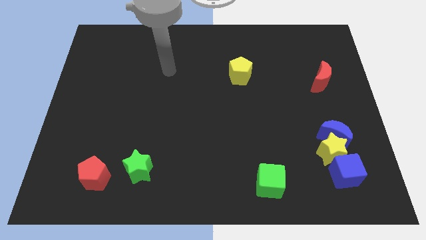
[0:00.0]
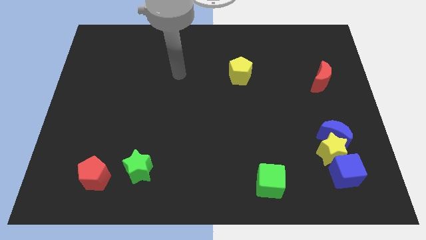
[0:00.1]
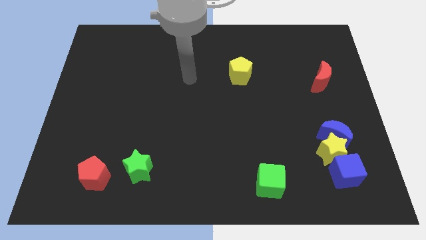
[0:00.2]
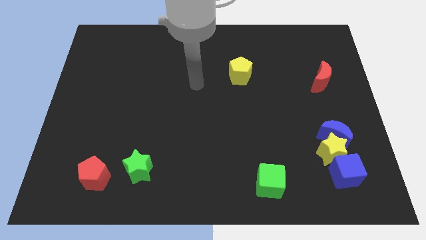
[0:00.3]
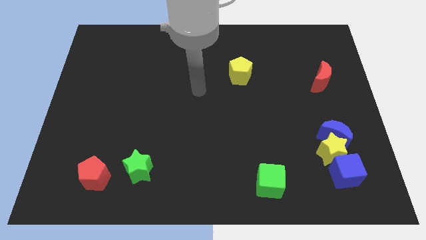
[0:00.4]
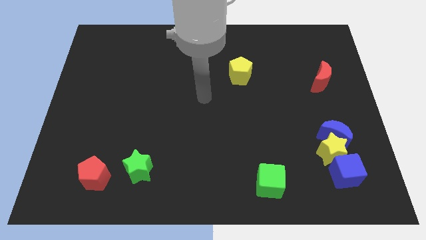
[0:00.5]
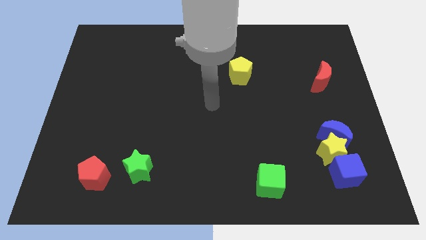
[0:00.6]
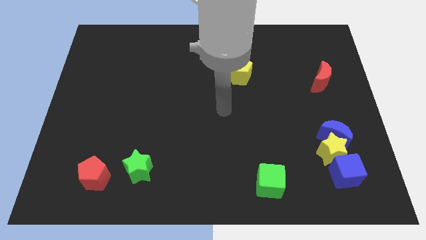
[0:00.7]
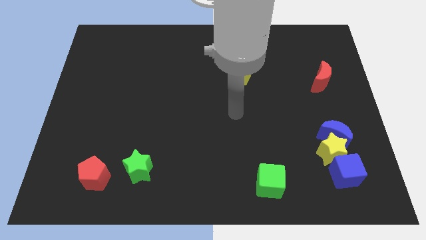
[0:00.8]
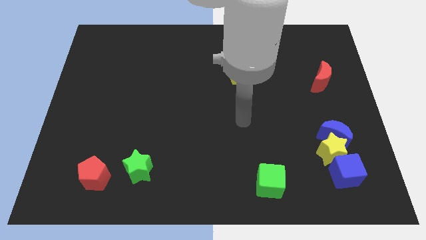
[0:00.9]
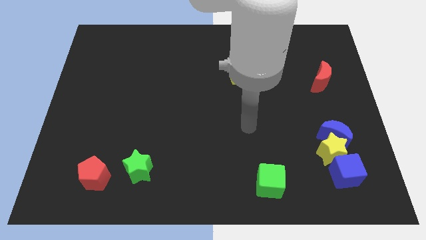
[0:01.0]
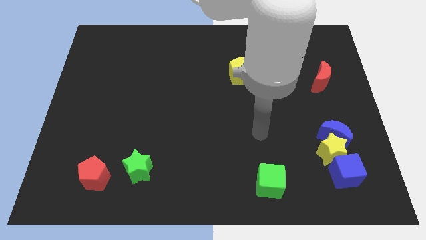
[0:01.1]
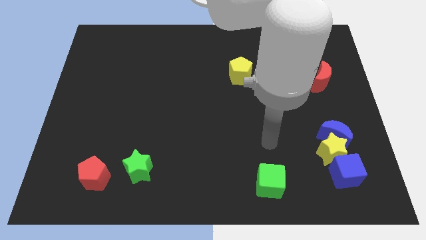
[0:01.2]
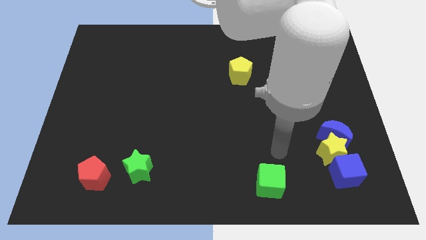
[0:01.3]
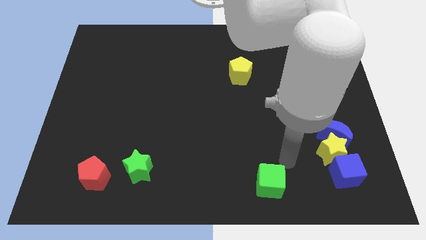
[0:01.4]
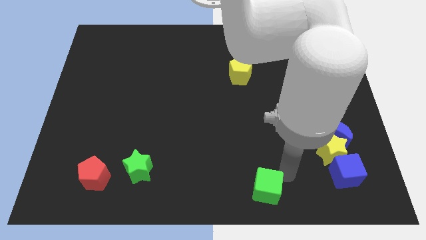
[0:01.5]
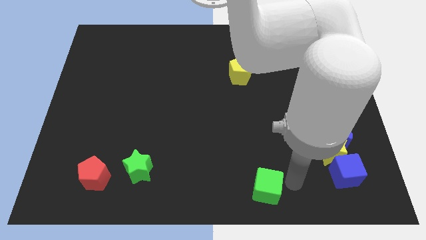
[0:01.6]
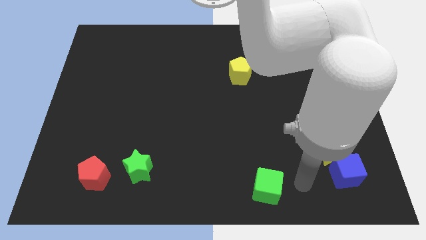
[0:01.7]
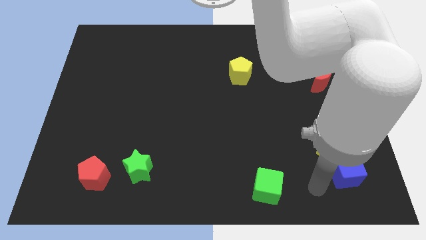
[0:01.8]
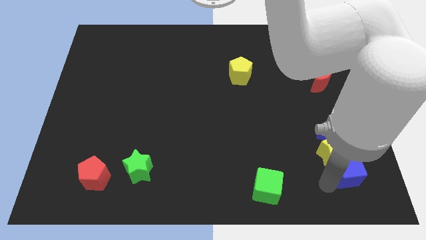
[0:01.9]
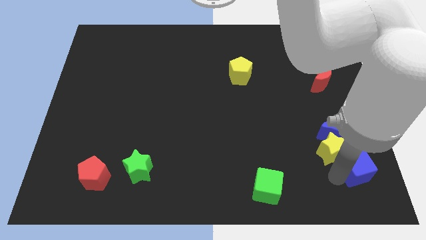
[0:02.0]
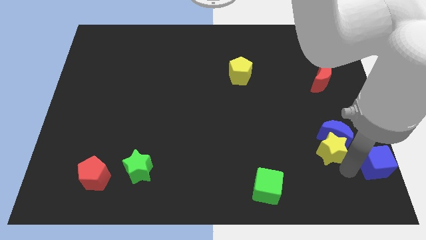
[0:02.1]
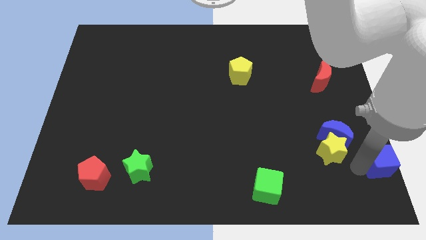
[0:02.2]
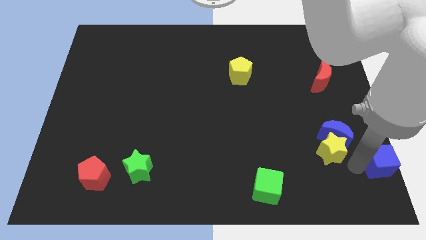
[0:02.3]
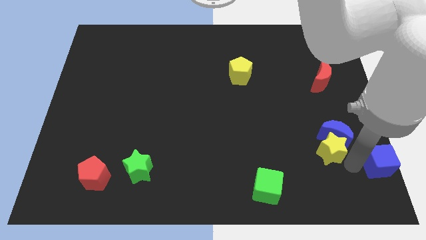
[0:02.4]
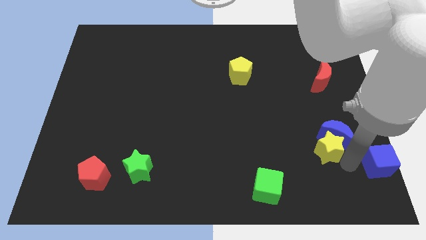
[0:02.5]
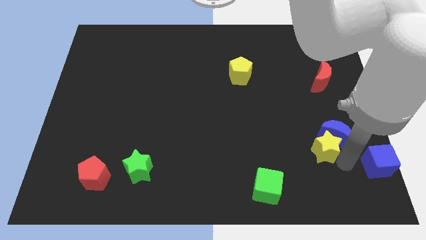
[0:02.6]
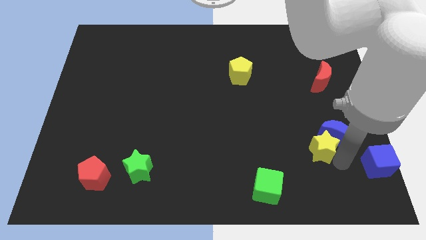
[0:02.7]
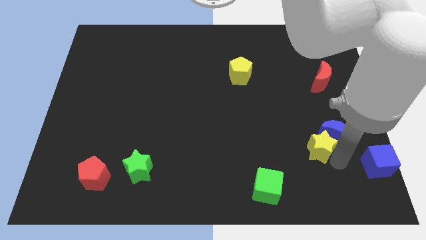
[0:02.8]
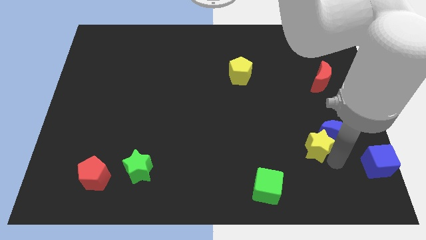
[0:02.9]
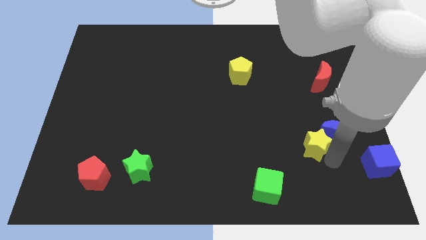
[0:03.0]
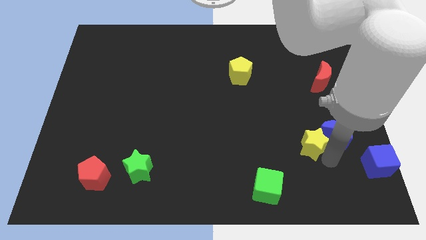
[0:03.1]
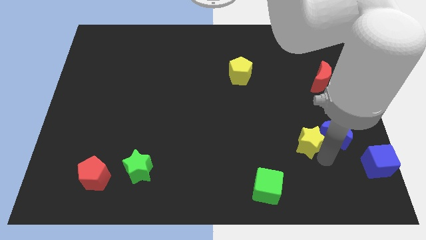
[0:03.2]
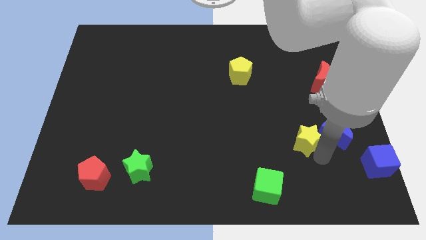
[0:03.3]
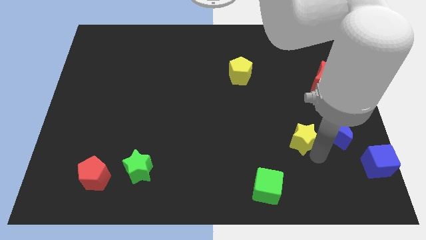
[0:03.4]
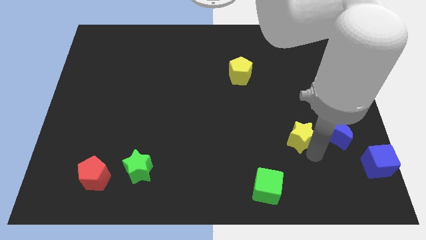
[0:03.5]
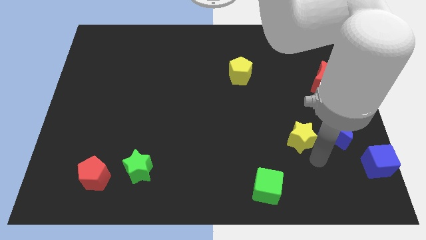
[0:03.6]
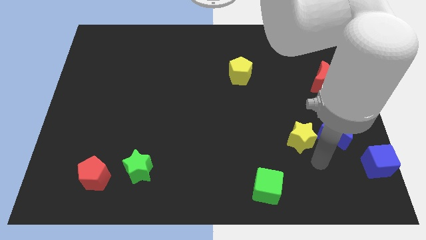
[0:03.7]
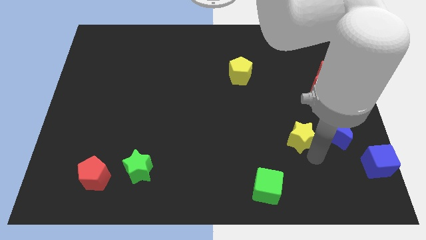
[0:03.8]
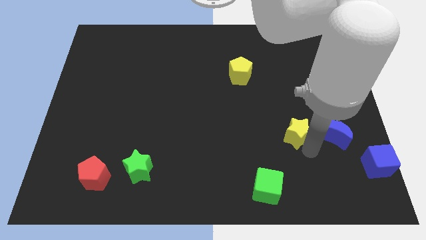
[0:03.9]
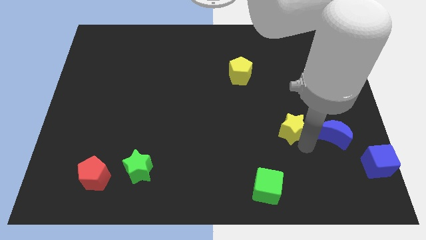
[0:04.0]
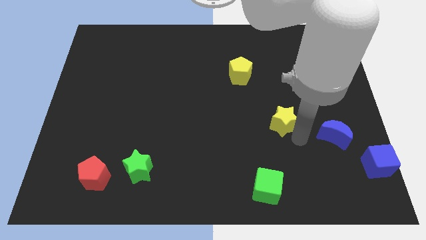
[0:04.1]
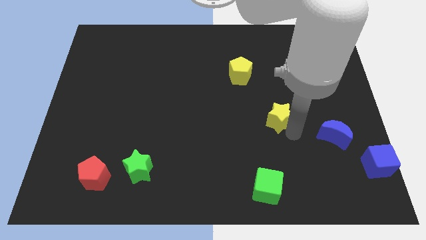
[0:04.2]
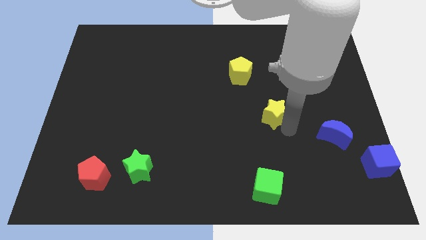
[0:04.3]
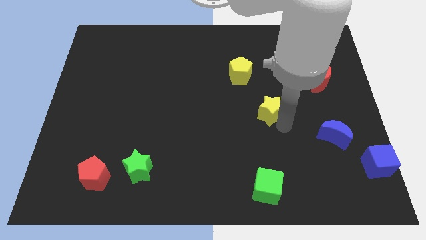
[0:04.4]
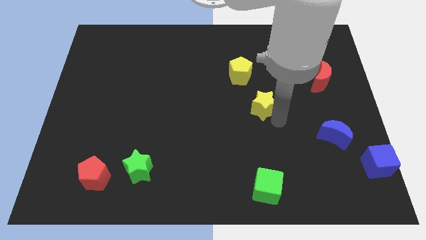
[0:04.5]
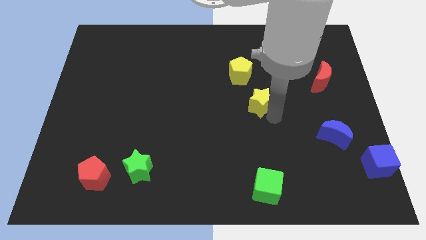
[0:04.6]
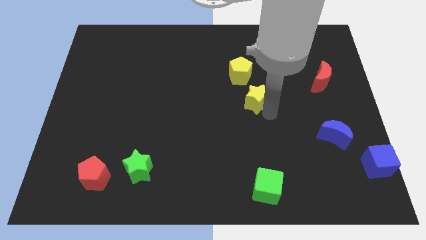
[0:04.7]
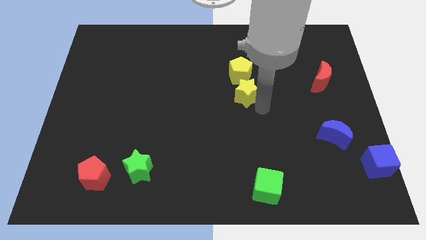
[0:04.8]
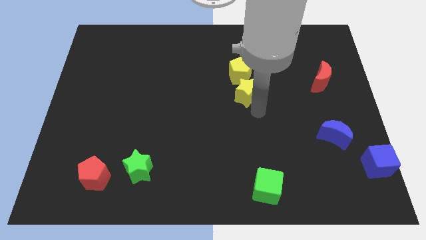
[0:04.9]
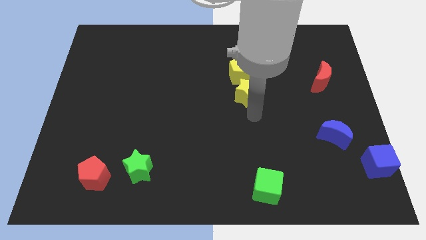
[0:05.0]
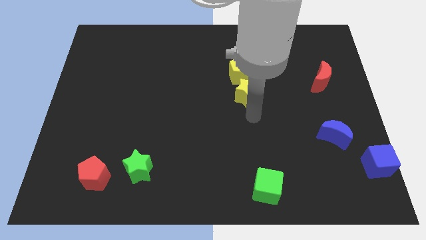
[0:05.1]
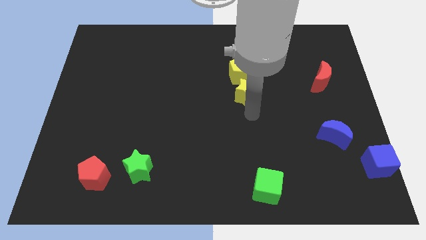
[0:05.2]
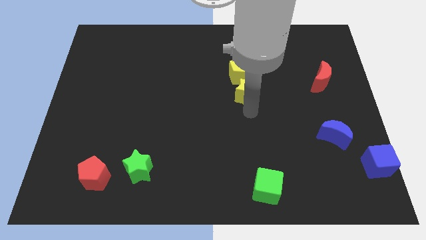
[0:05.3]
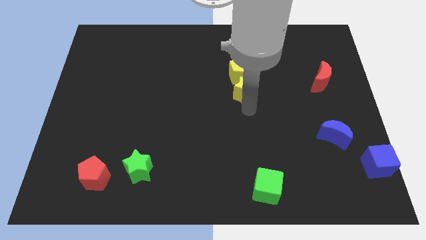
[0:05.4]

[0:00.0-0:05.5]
slide the yellow star towards the yellow pentagon

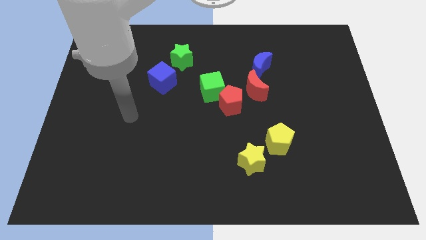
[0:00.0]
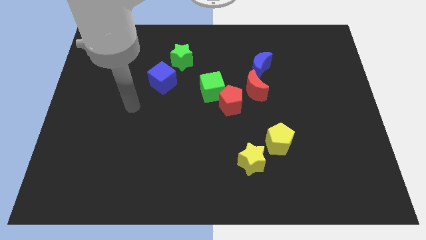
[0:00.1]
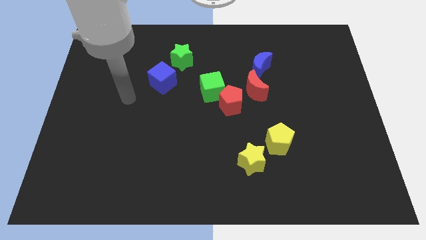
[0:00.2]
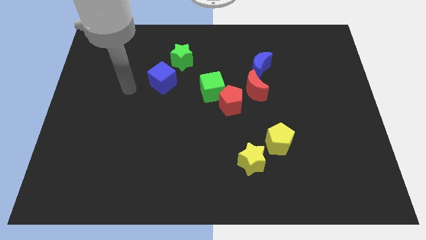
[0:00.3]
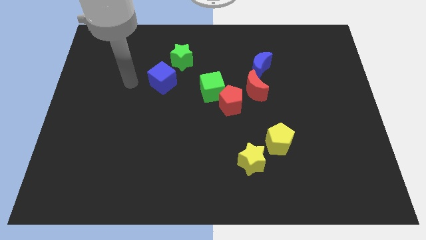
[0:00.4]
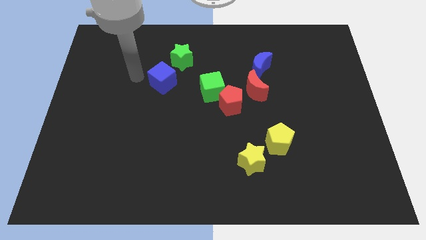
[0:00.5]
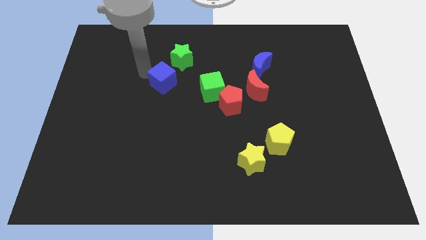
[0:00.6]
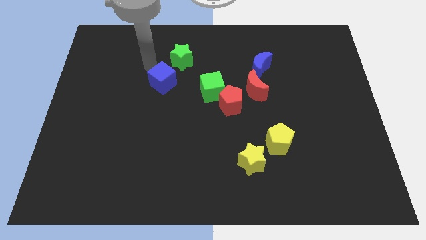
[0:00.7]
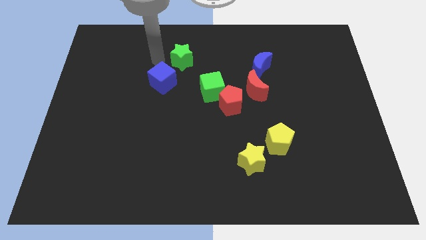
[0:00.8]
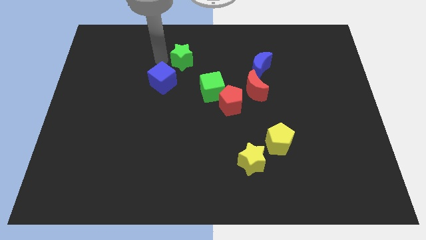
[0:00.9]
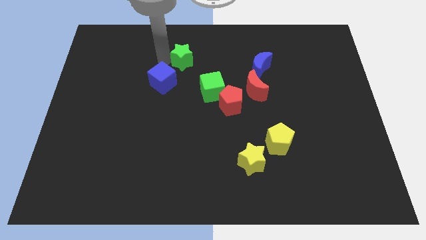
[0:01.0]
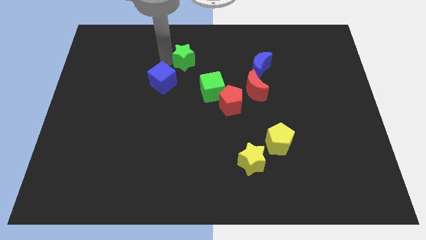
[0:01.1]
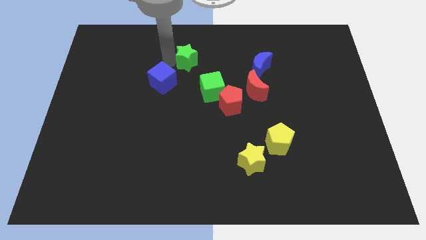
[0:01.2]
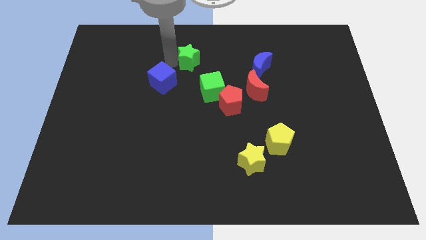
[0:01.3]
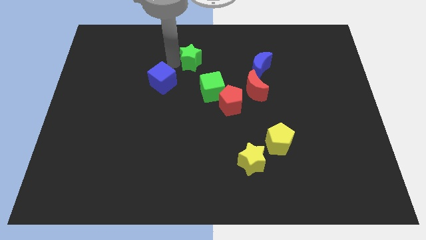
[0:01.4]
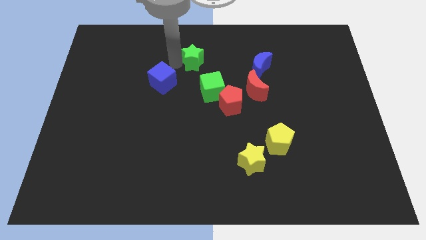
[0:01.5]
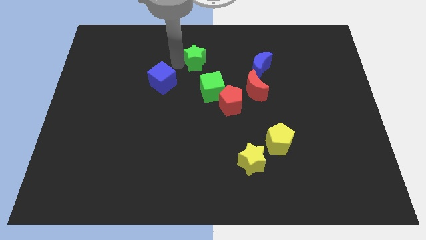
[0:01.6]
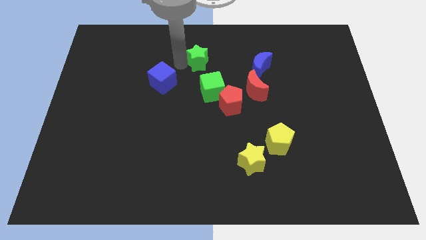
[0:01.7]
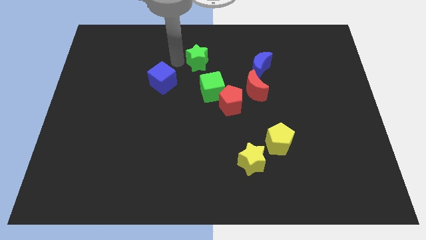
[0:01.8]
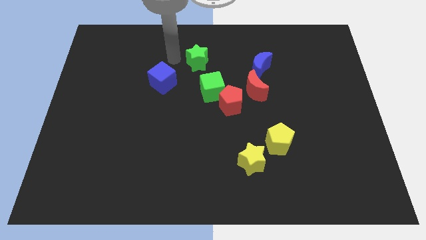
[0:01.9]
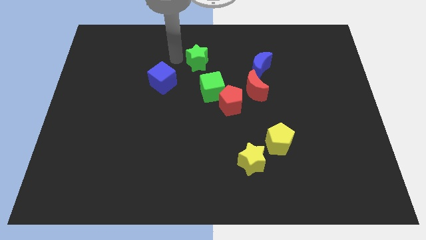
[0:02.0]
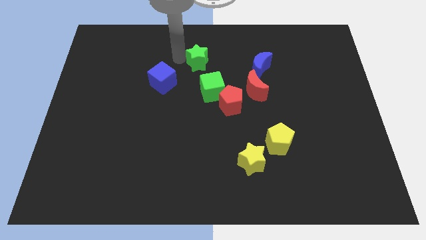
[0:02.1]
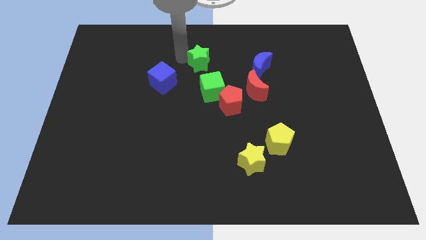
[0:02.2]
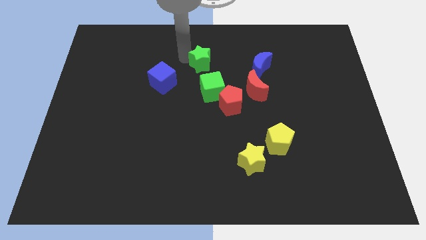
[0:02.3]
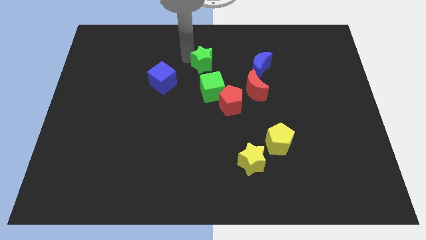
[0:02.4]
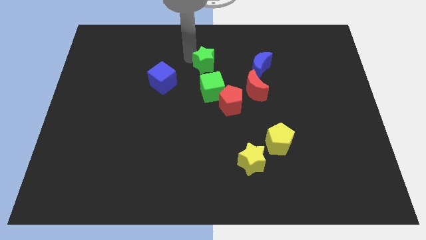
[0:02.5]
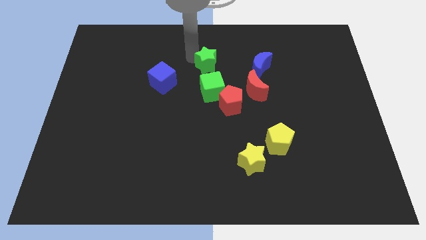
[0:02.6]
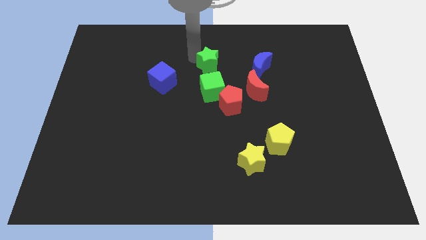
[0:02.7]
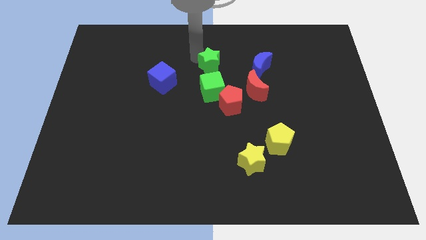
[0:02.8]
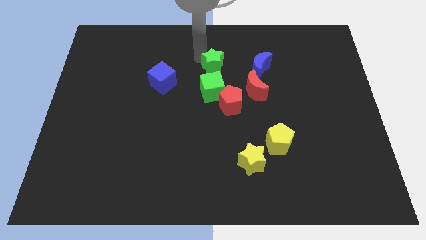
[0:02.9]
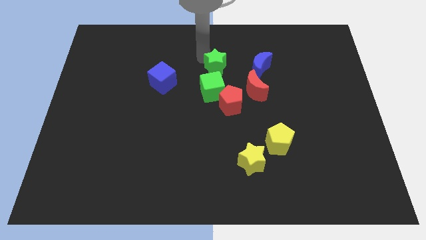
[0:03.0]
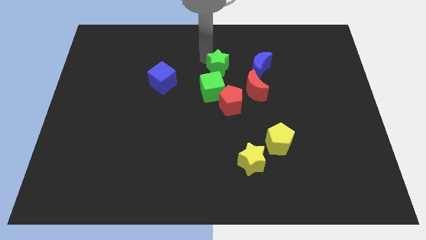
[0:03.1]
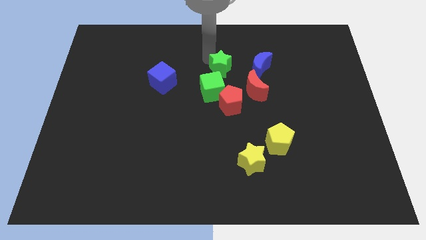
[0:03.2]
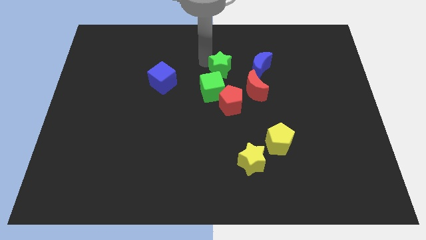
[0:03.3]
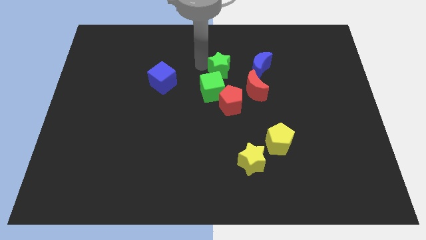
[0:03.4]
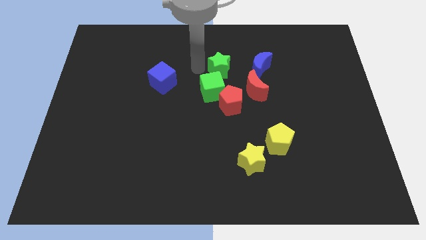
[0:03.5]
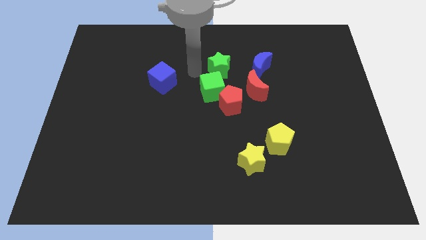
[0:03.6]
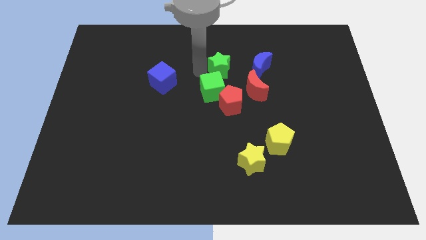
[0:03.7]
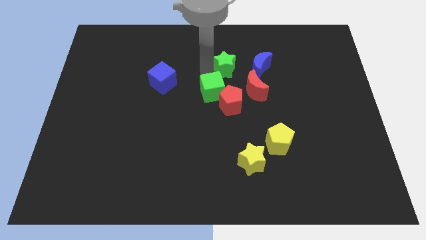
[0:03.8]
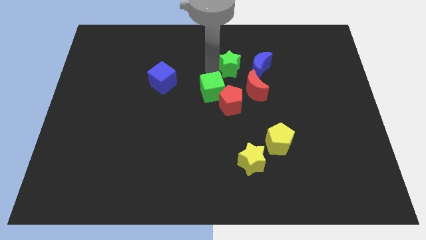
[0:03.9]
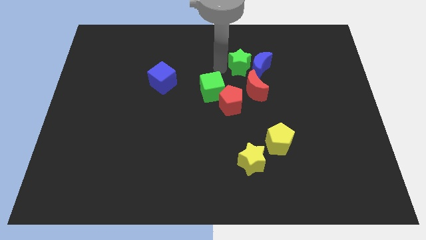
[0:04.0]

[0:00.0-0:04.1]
slide the green star close to the blue moon
